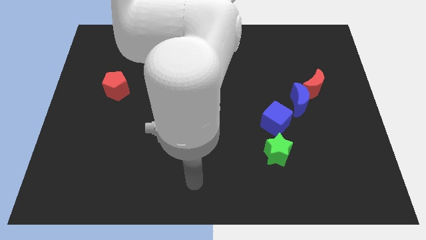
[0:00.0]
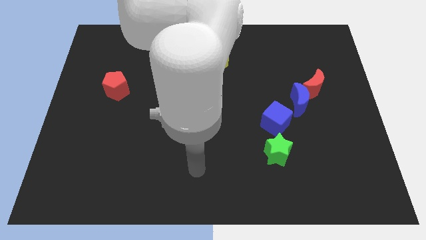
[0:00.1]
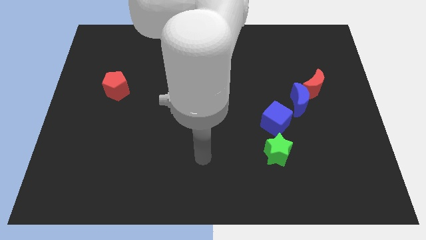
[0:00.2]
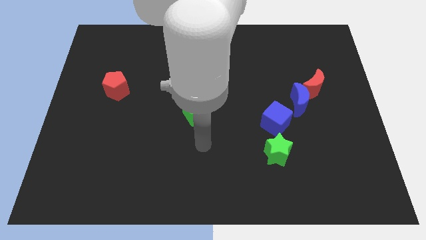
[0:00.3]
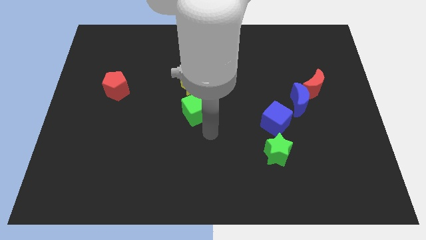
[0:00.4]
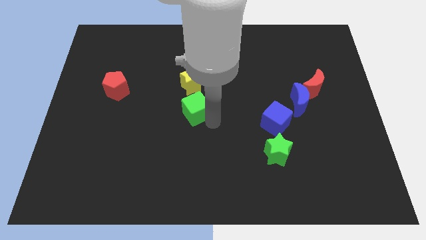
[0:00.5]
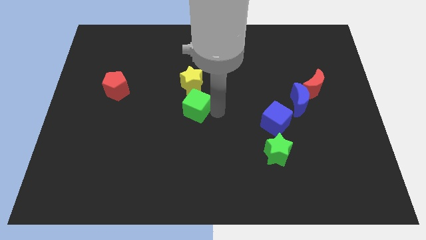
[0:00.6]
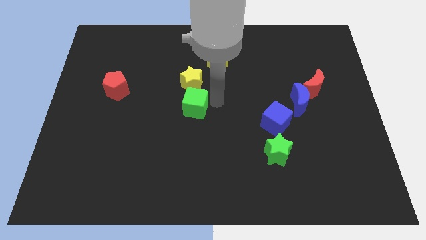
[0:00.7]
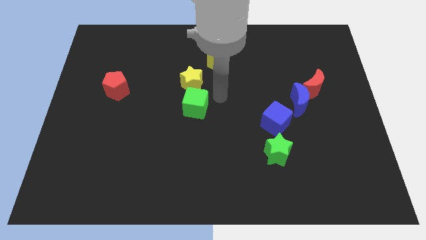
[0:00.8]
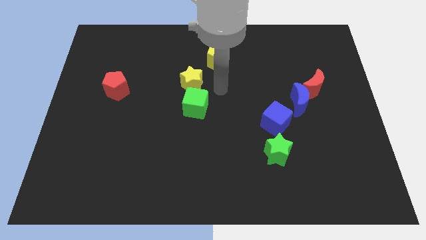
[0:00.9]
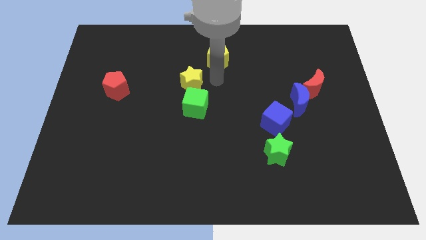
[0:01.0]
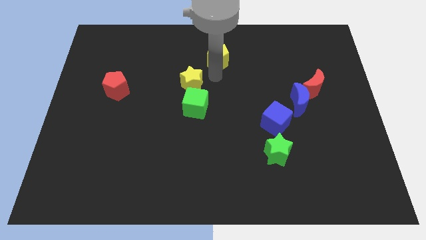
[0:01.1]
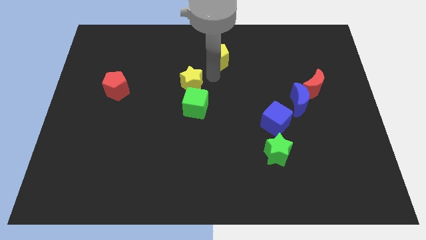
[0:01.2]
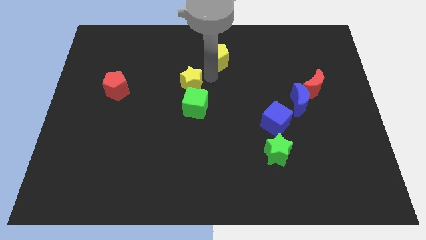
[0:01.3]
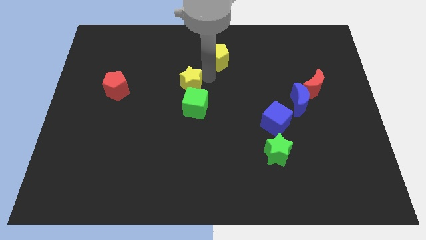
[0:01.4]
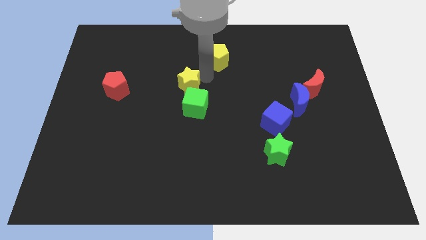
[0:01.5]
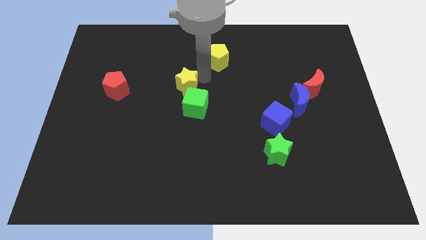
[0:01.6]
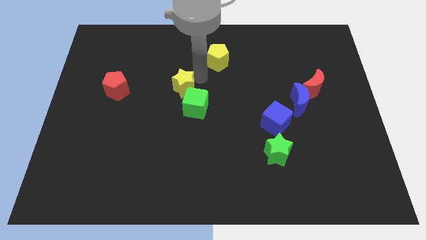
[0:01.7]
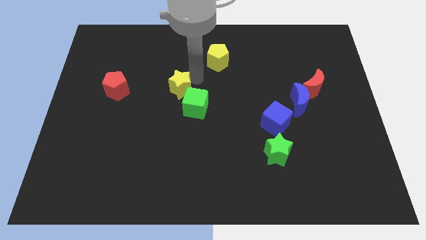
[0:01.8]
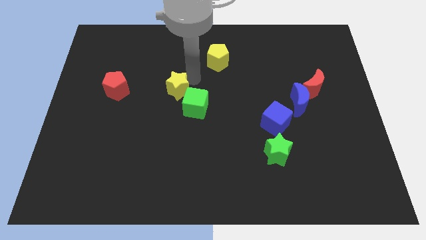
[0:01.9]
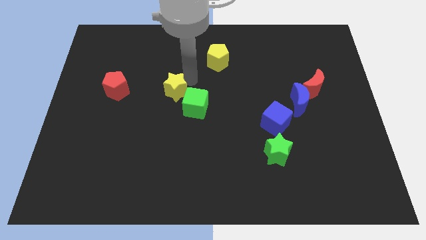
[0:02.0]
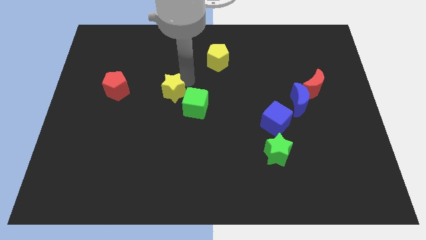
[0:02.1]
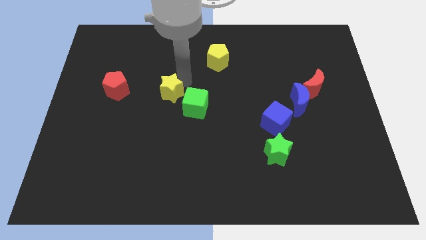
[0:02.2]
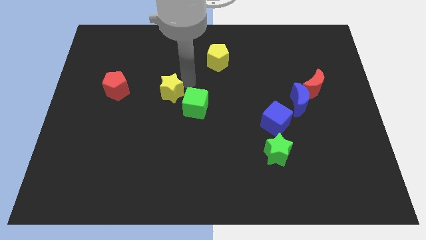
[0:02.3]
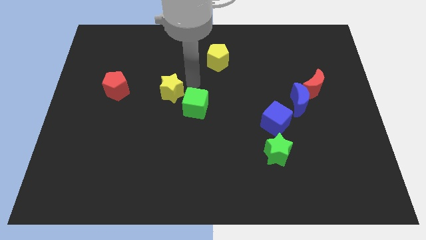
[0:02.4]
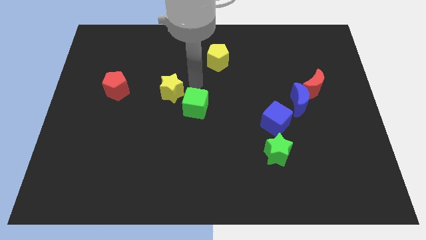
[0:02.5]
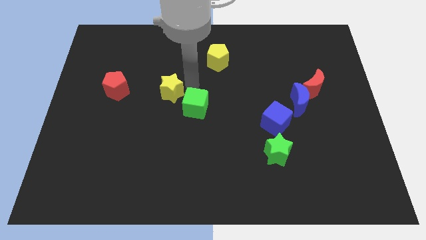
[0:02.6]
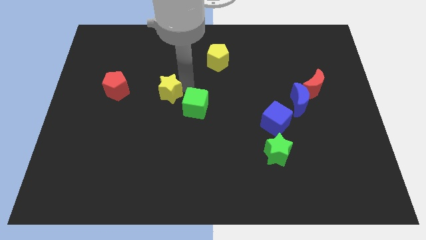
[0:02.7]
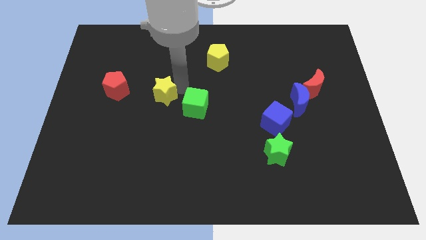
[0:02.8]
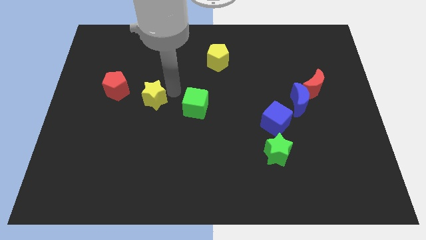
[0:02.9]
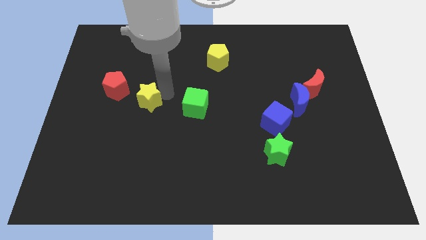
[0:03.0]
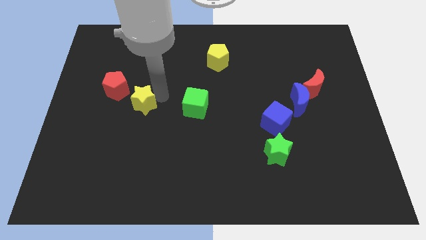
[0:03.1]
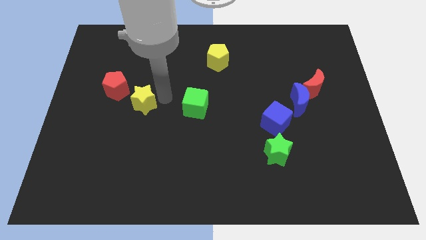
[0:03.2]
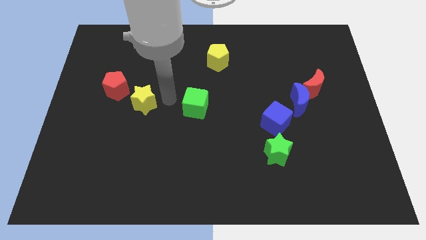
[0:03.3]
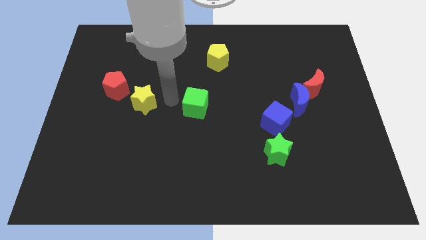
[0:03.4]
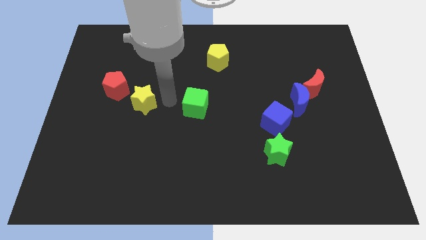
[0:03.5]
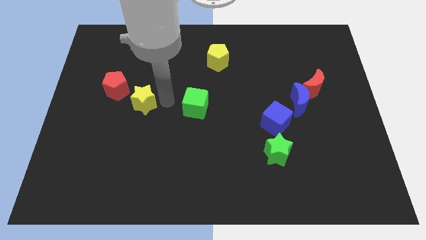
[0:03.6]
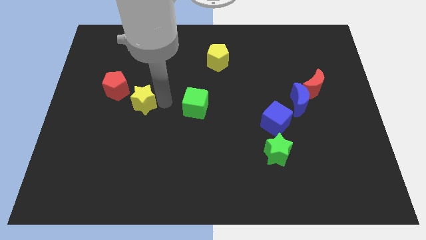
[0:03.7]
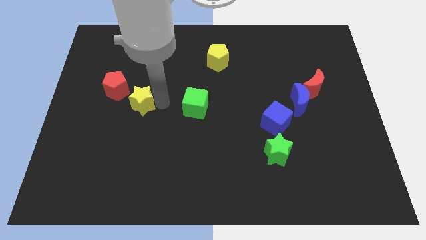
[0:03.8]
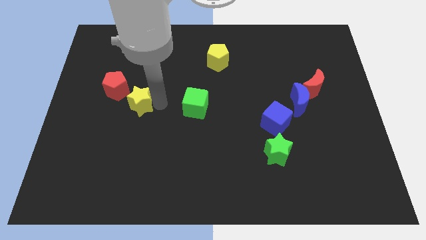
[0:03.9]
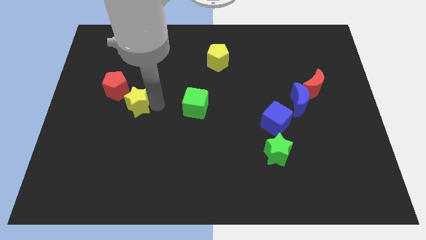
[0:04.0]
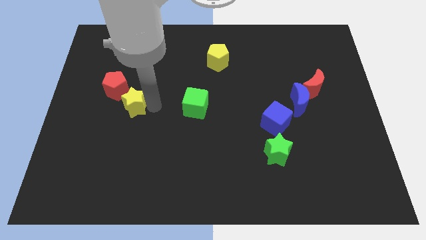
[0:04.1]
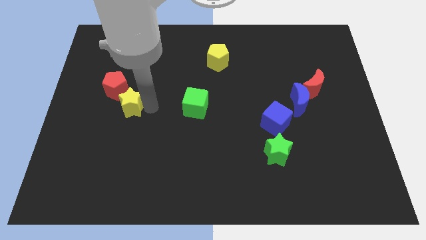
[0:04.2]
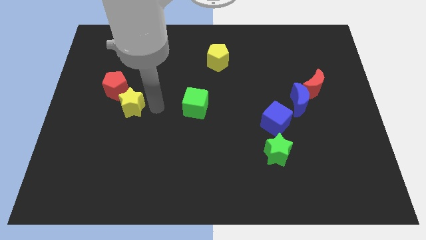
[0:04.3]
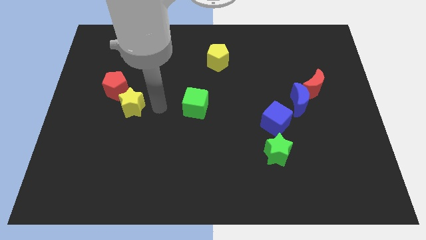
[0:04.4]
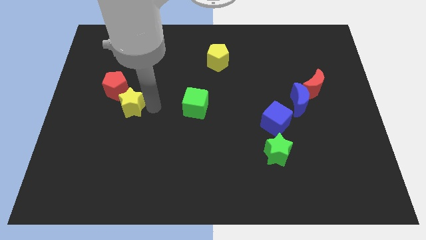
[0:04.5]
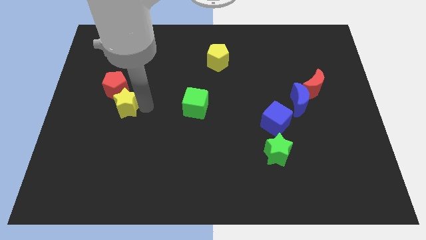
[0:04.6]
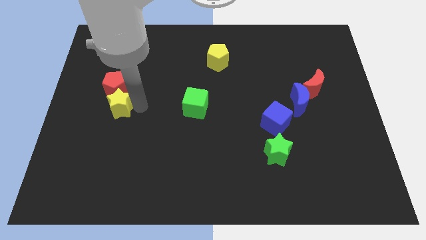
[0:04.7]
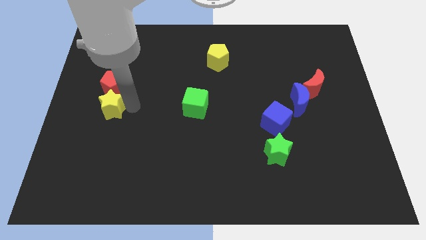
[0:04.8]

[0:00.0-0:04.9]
push the yellow star to the bottom left of the red pentagon

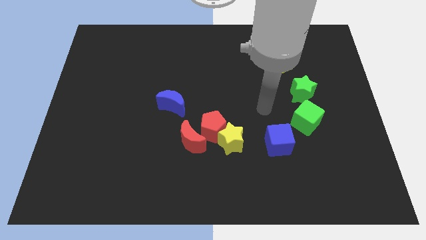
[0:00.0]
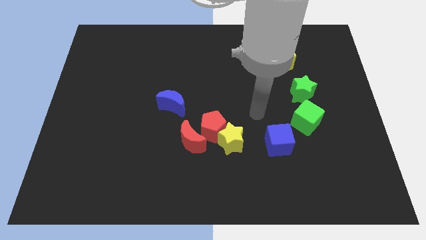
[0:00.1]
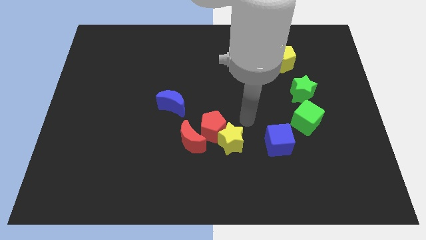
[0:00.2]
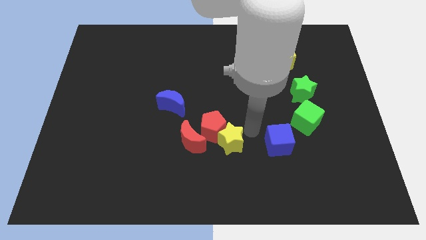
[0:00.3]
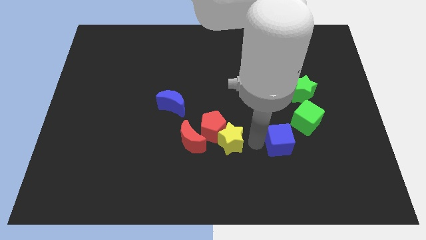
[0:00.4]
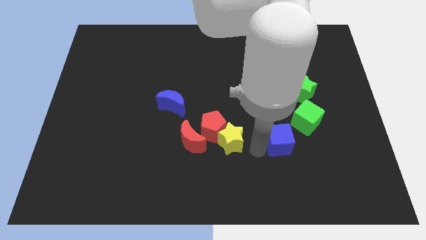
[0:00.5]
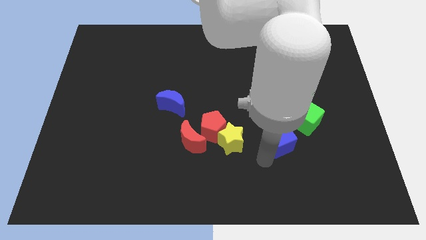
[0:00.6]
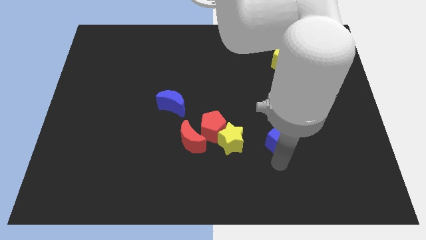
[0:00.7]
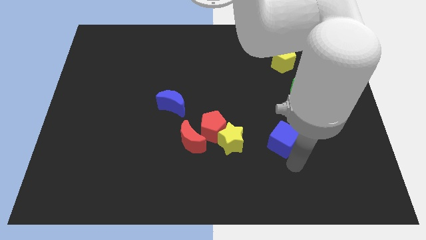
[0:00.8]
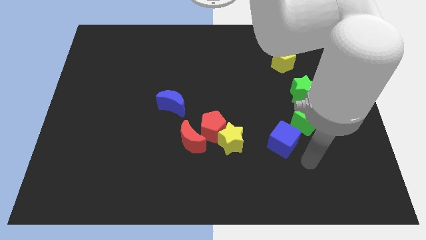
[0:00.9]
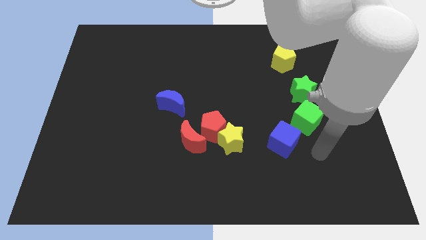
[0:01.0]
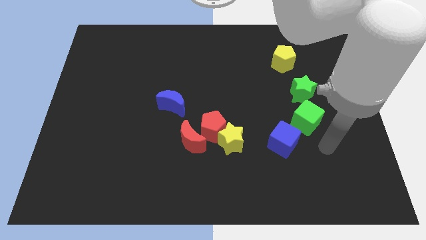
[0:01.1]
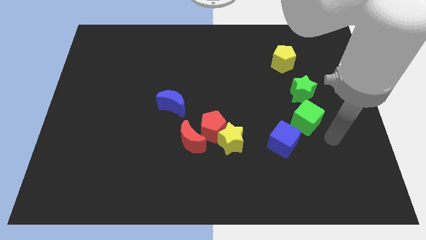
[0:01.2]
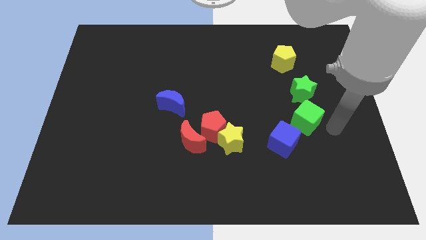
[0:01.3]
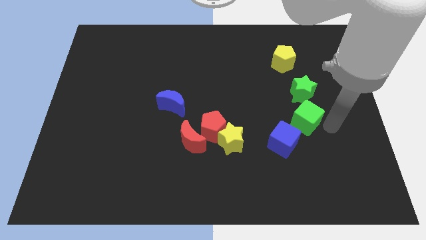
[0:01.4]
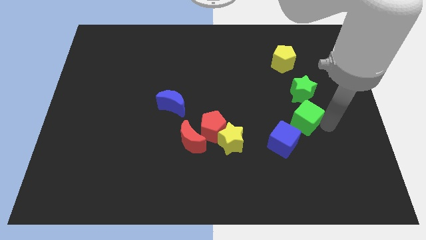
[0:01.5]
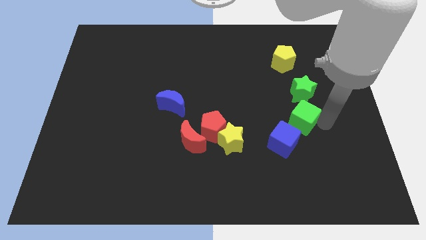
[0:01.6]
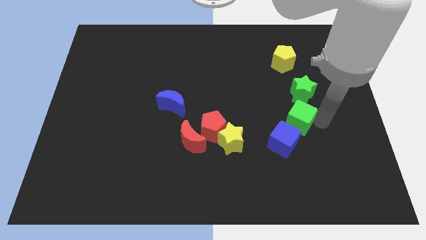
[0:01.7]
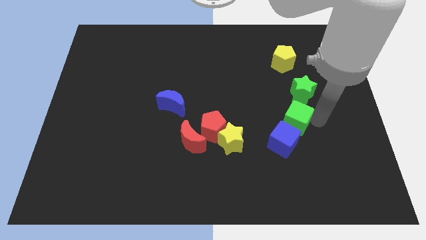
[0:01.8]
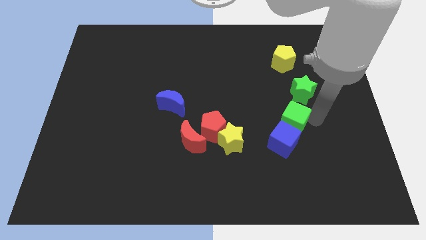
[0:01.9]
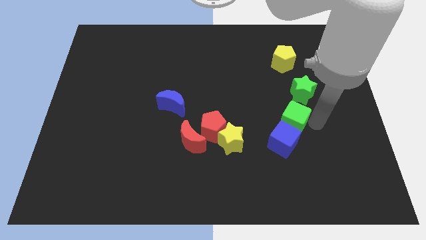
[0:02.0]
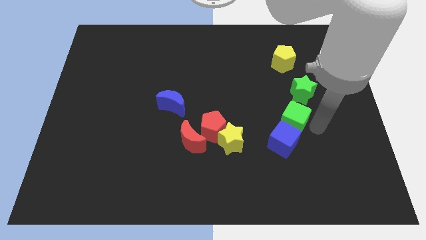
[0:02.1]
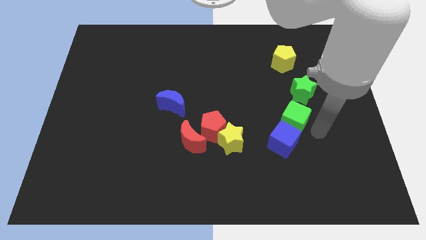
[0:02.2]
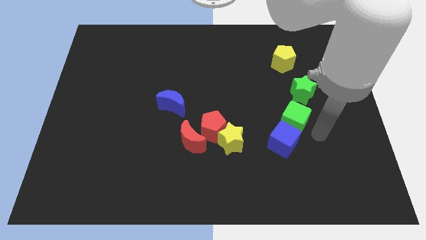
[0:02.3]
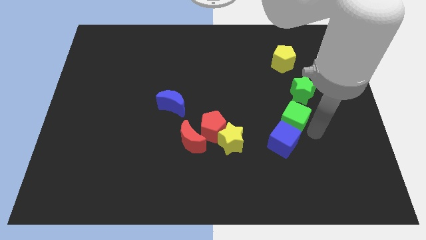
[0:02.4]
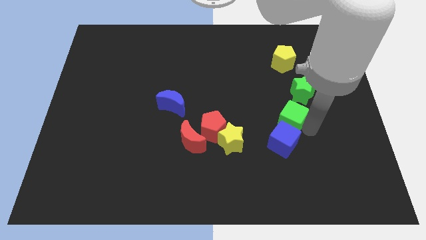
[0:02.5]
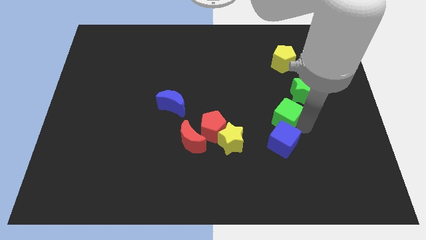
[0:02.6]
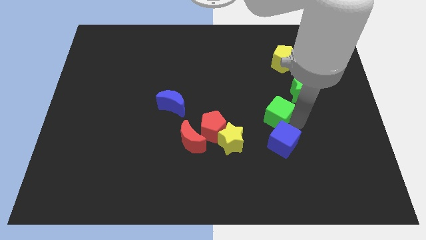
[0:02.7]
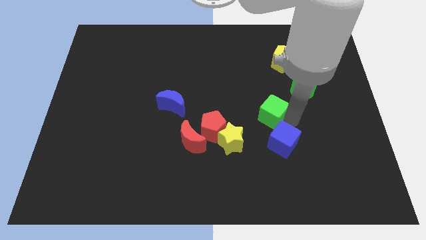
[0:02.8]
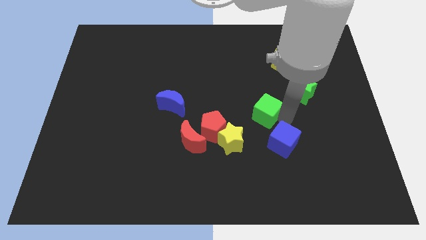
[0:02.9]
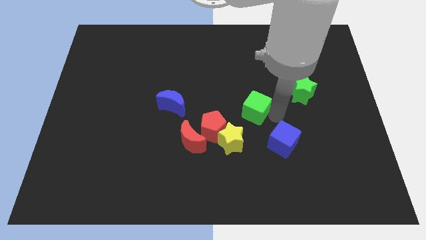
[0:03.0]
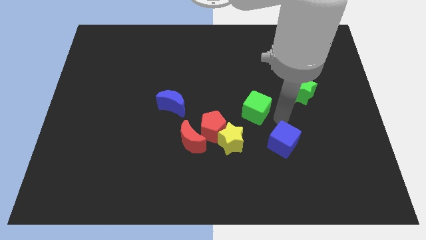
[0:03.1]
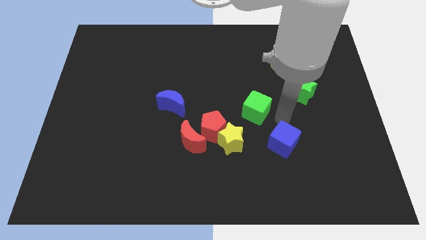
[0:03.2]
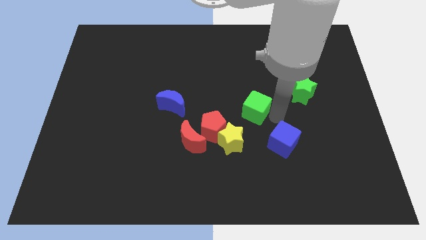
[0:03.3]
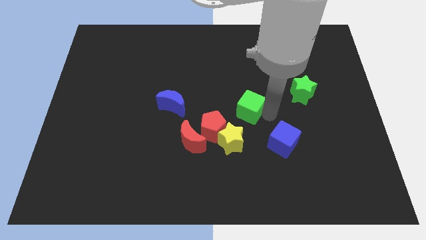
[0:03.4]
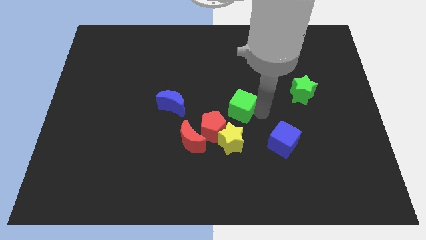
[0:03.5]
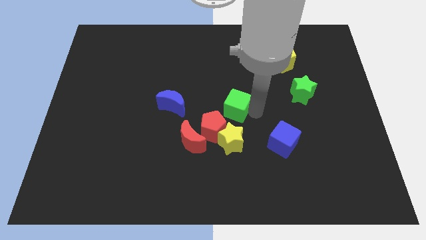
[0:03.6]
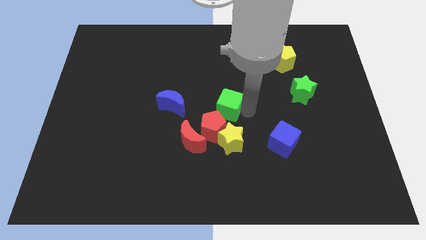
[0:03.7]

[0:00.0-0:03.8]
put the green cube above the red pentagon

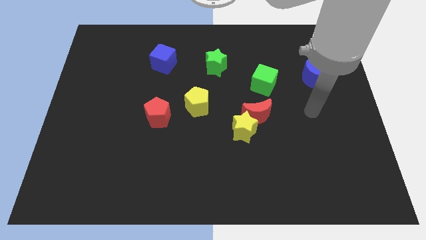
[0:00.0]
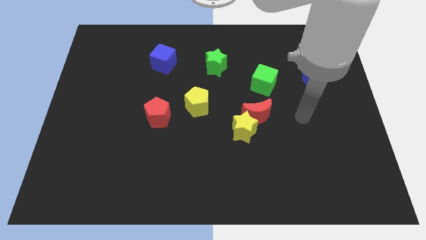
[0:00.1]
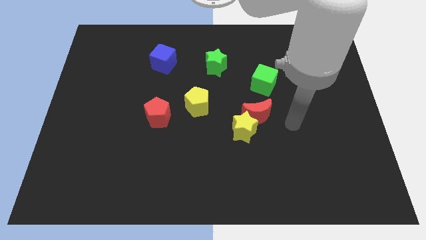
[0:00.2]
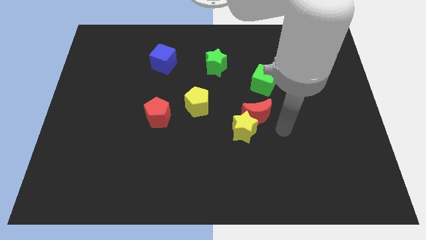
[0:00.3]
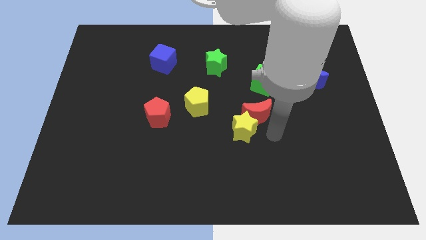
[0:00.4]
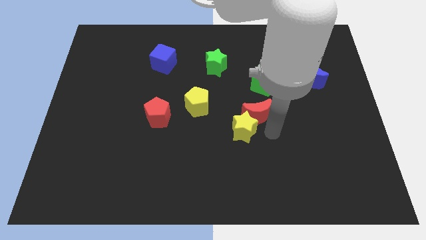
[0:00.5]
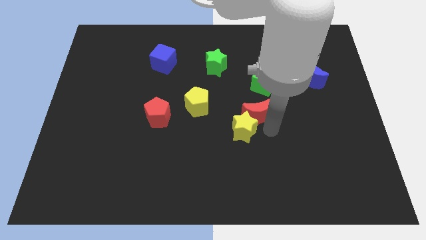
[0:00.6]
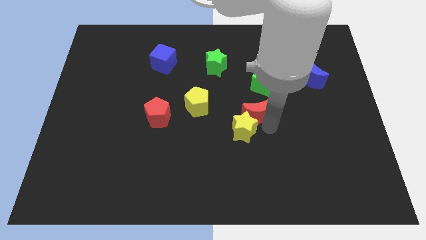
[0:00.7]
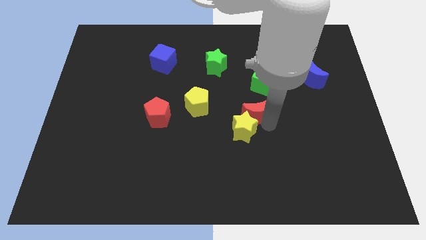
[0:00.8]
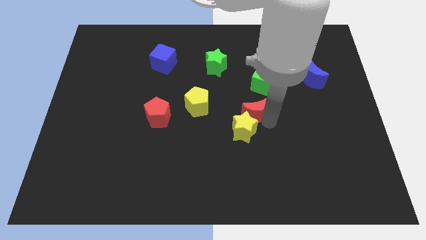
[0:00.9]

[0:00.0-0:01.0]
put the red moon diagonally down and to the left of the green cube
